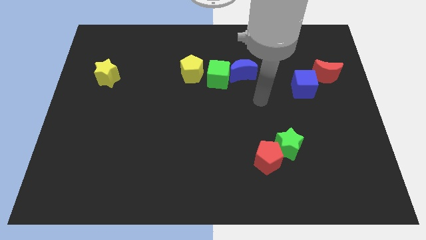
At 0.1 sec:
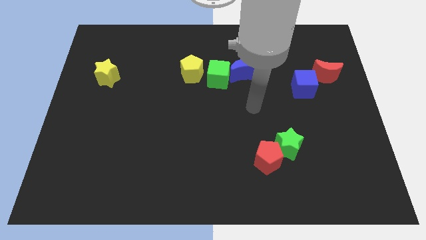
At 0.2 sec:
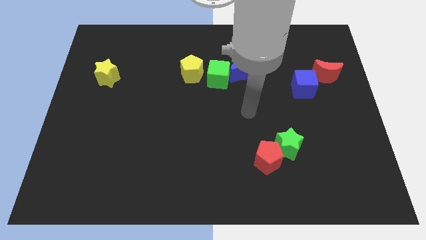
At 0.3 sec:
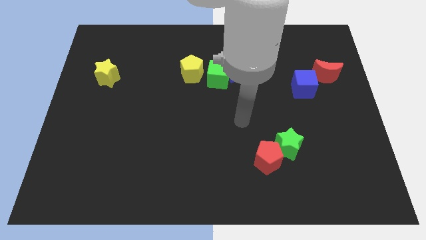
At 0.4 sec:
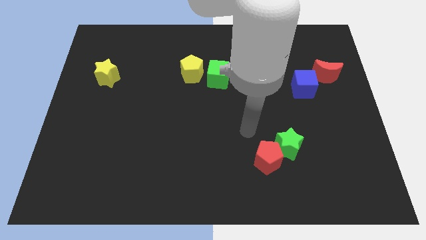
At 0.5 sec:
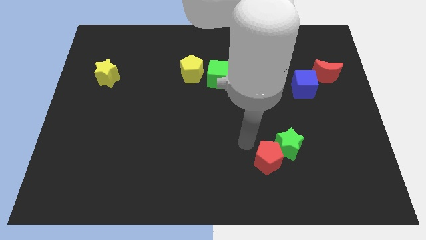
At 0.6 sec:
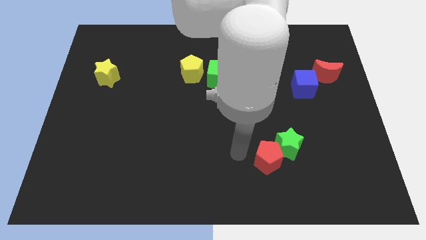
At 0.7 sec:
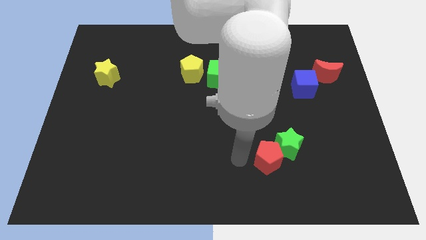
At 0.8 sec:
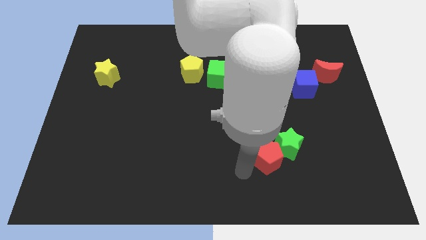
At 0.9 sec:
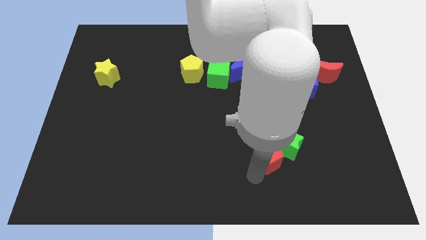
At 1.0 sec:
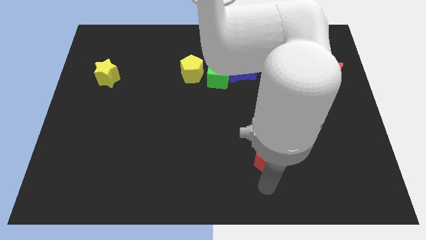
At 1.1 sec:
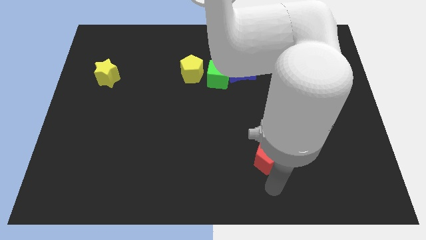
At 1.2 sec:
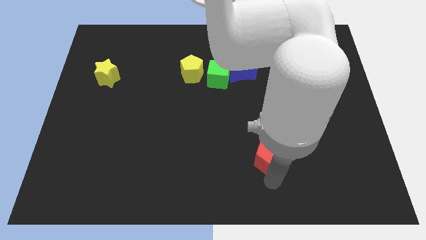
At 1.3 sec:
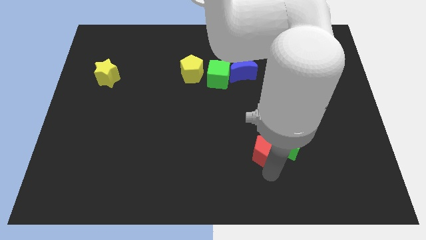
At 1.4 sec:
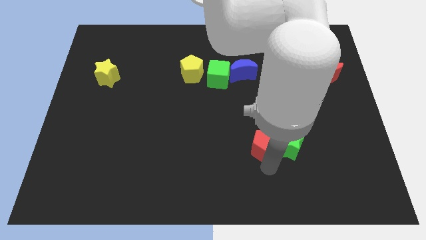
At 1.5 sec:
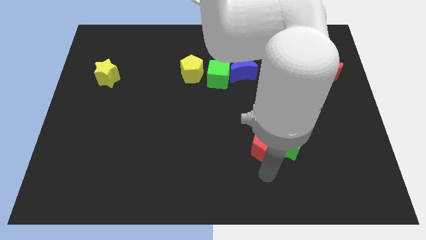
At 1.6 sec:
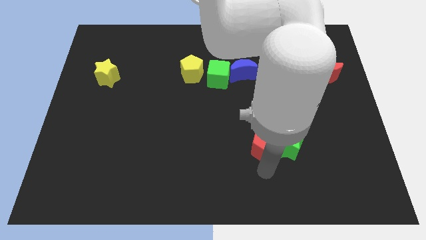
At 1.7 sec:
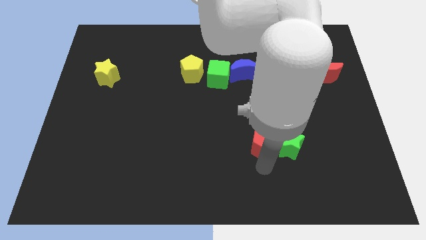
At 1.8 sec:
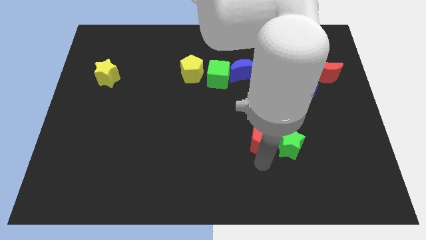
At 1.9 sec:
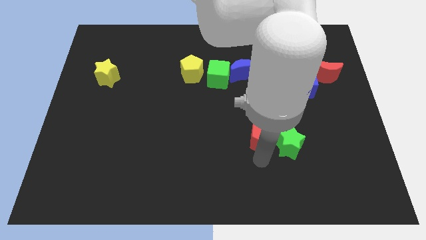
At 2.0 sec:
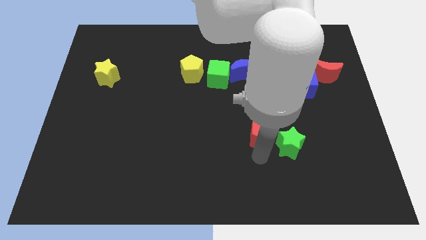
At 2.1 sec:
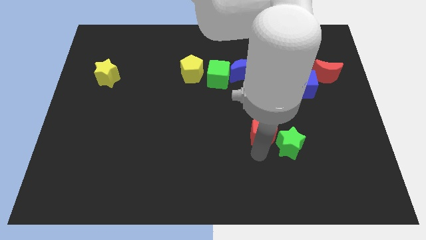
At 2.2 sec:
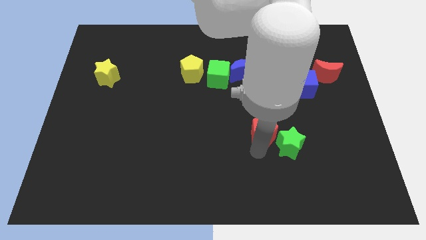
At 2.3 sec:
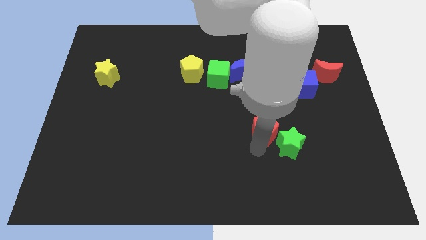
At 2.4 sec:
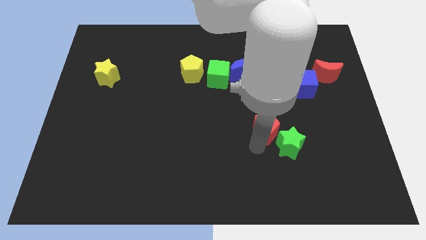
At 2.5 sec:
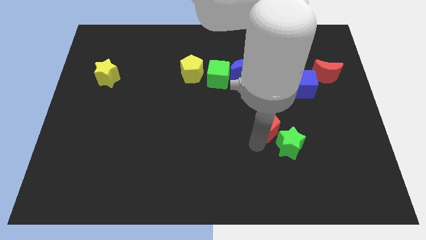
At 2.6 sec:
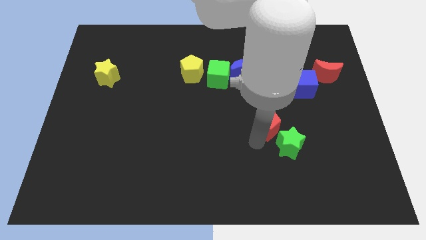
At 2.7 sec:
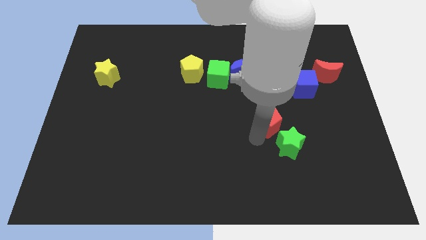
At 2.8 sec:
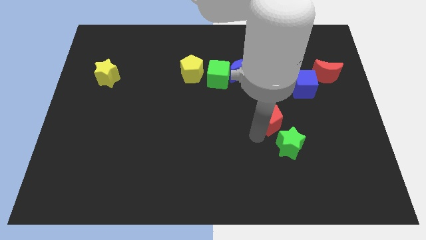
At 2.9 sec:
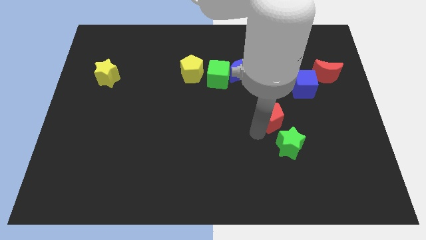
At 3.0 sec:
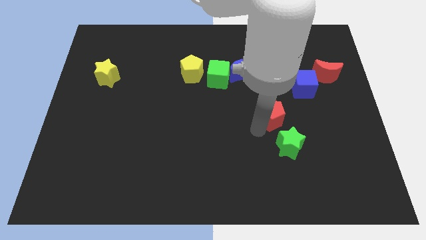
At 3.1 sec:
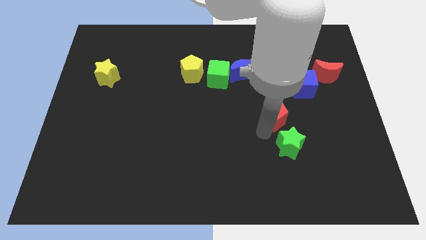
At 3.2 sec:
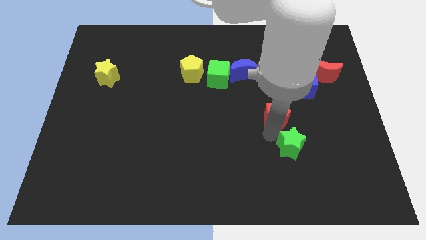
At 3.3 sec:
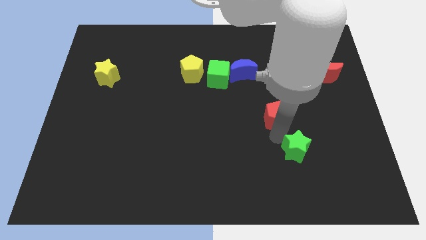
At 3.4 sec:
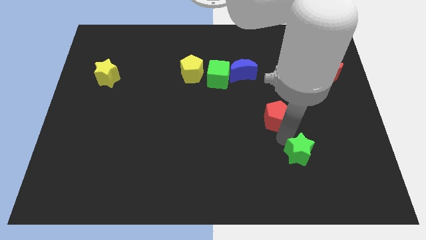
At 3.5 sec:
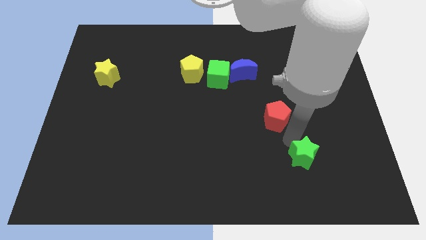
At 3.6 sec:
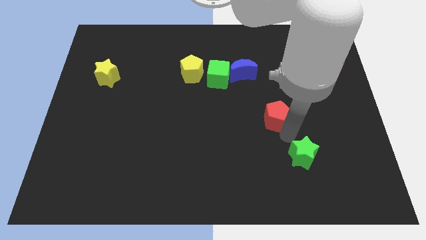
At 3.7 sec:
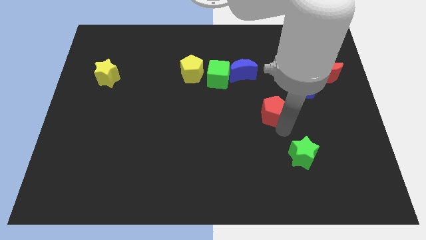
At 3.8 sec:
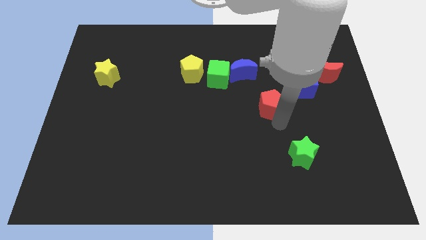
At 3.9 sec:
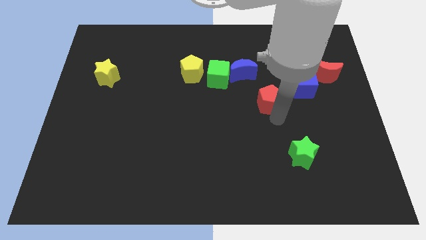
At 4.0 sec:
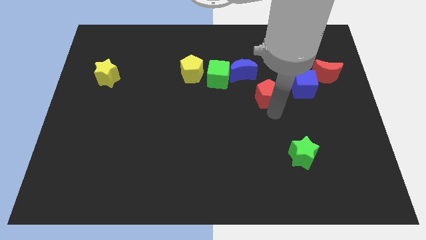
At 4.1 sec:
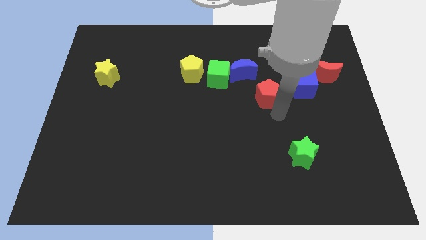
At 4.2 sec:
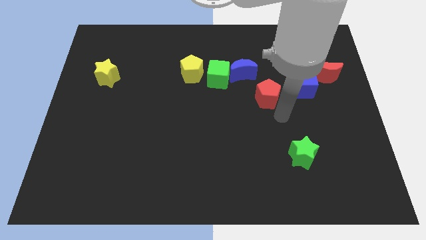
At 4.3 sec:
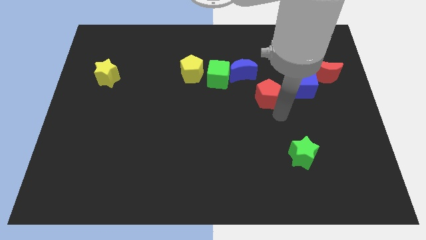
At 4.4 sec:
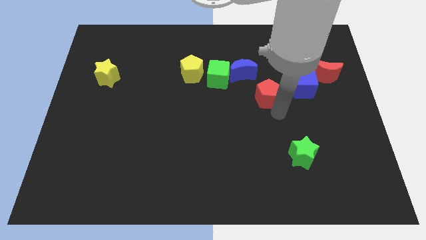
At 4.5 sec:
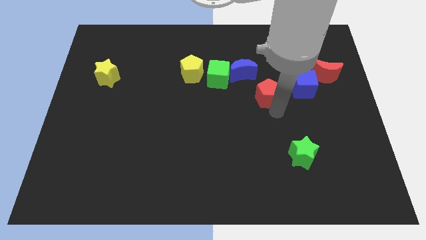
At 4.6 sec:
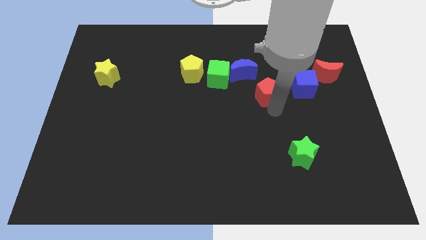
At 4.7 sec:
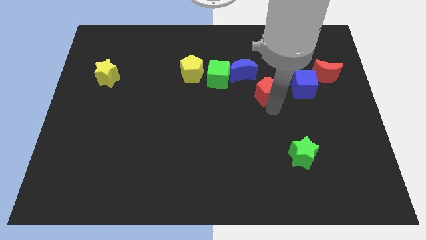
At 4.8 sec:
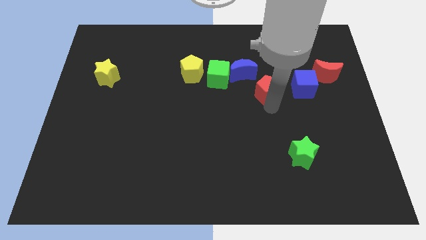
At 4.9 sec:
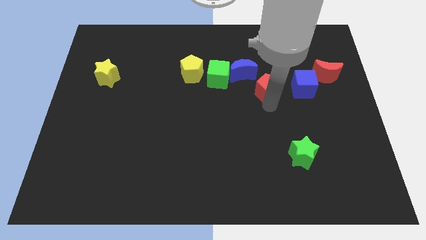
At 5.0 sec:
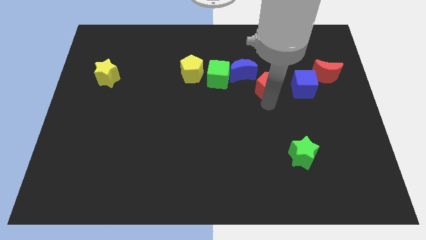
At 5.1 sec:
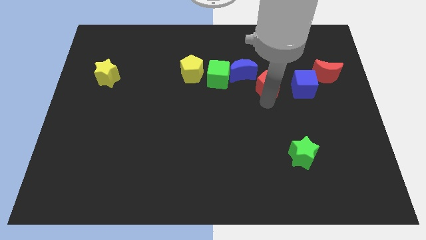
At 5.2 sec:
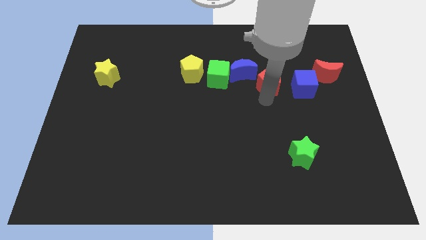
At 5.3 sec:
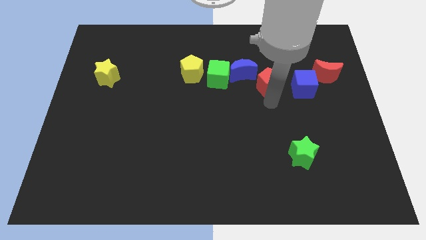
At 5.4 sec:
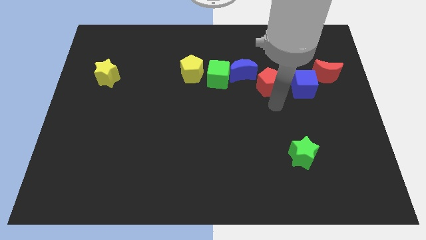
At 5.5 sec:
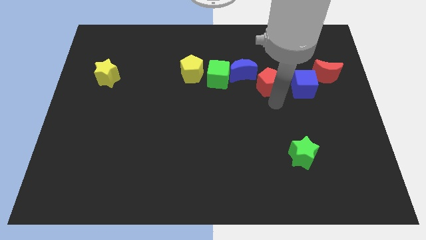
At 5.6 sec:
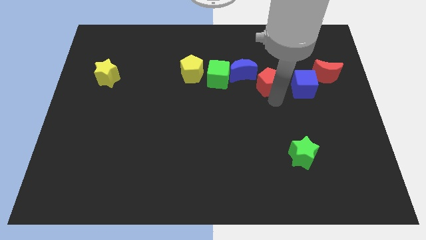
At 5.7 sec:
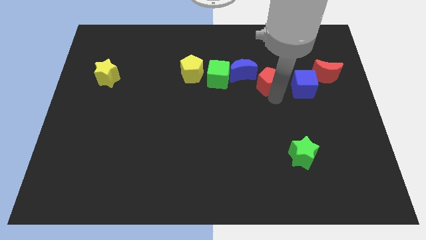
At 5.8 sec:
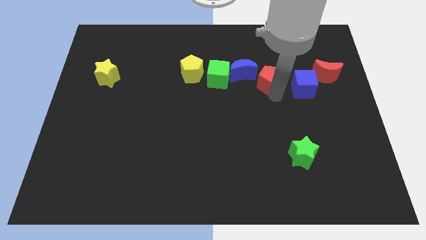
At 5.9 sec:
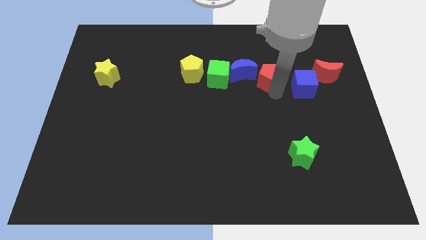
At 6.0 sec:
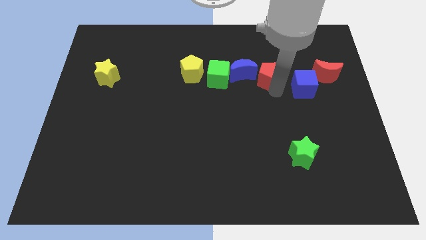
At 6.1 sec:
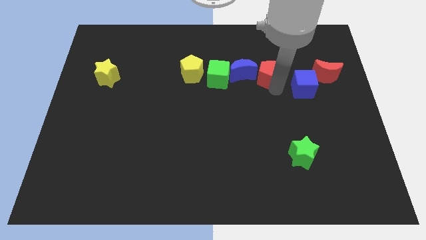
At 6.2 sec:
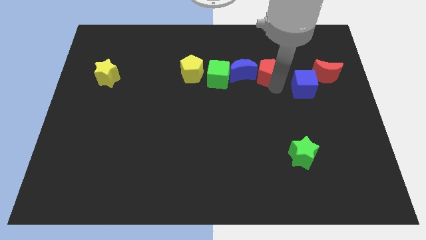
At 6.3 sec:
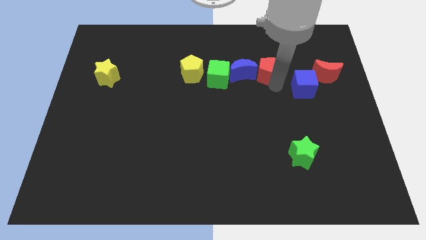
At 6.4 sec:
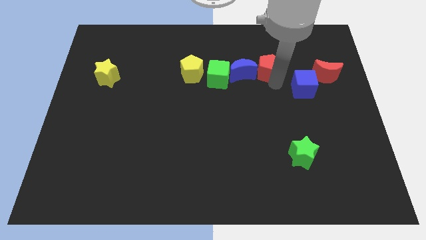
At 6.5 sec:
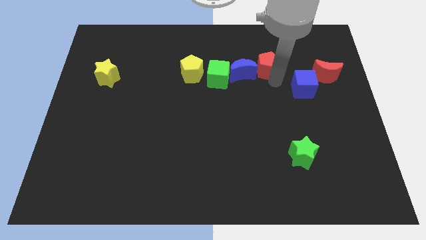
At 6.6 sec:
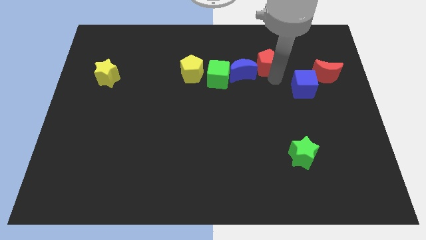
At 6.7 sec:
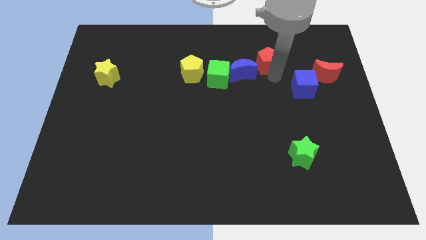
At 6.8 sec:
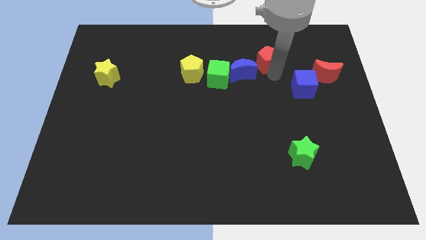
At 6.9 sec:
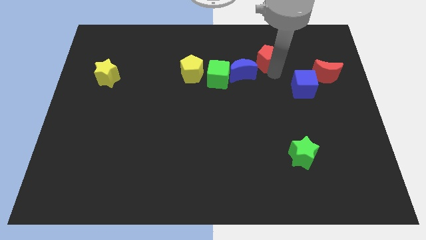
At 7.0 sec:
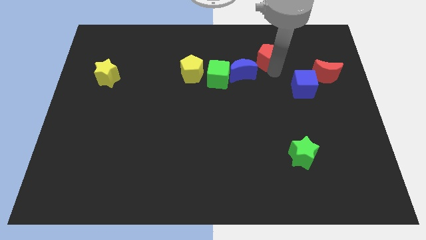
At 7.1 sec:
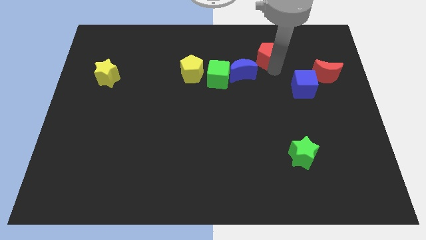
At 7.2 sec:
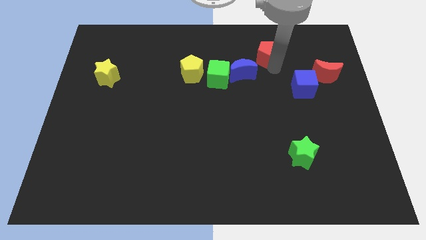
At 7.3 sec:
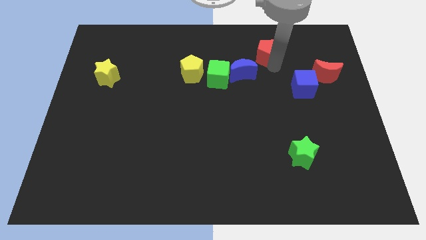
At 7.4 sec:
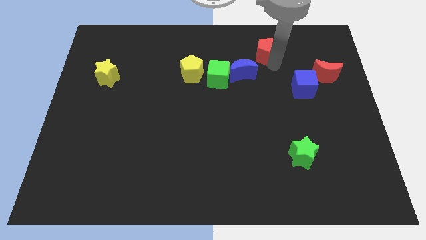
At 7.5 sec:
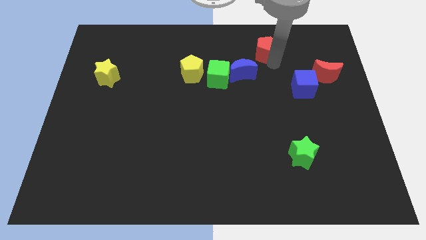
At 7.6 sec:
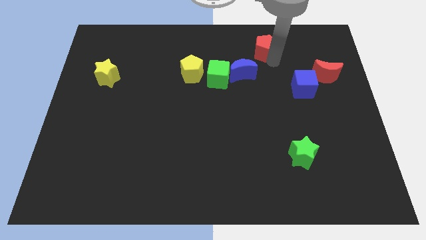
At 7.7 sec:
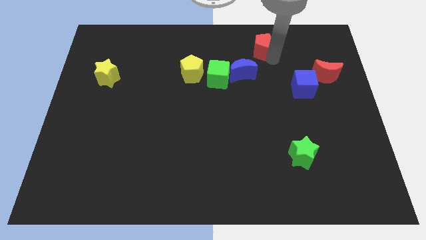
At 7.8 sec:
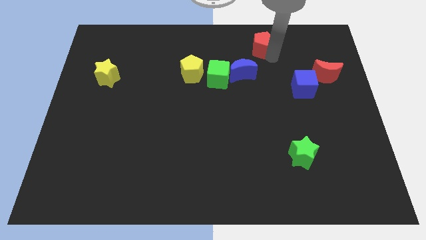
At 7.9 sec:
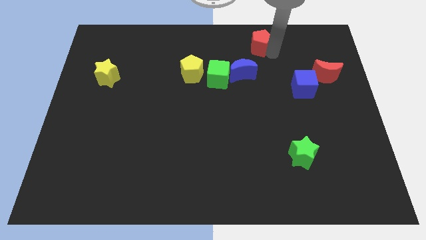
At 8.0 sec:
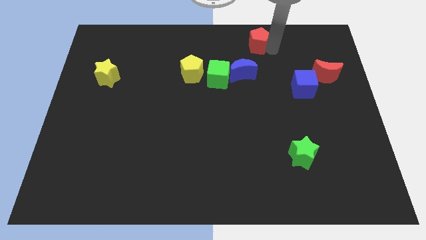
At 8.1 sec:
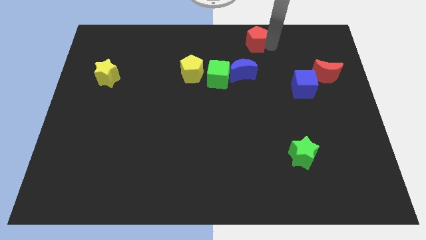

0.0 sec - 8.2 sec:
push the red pentagon to the top
